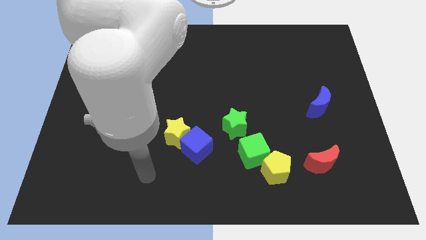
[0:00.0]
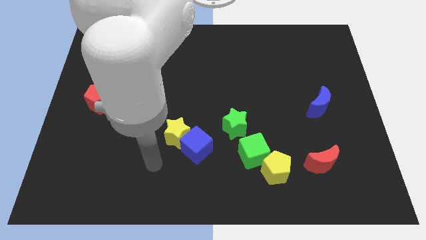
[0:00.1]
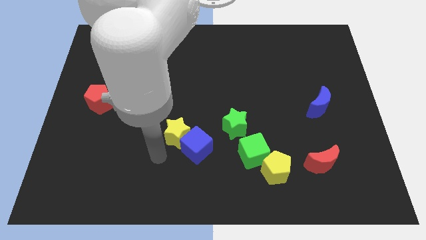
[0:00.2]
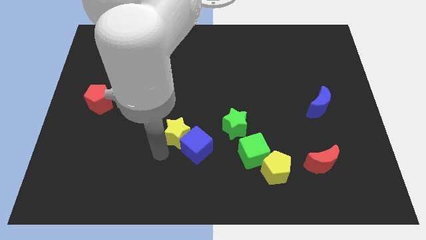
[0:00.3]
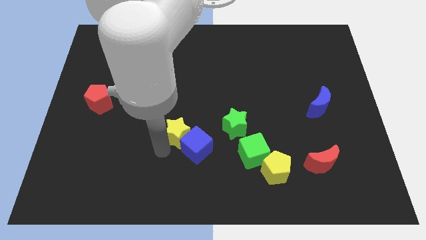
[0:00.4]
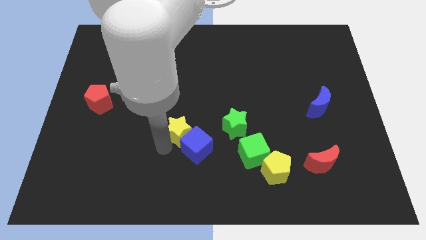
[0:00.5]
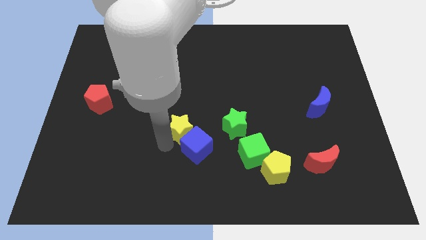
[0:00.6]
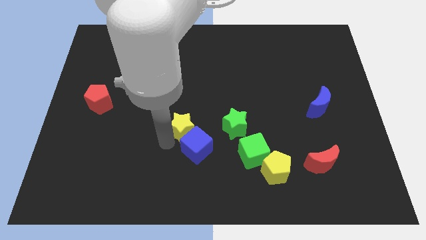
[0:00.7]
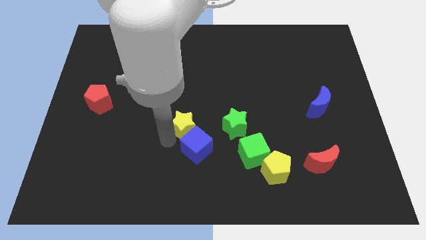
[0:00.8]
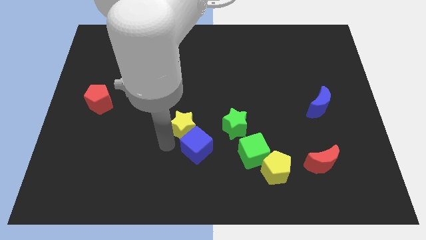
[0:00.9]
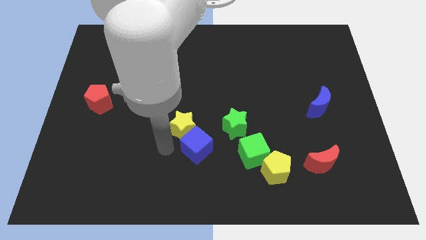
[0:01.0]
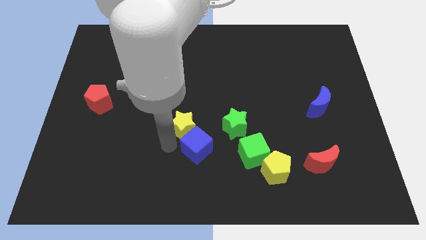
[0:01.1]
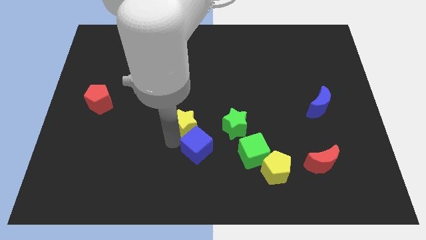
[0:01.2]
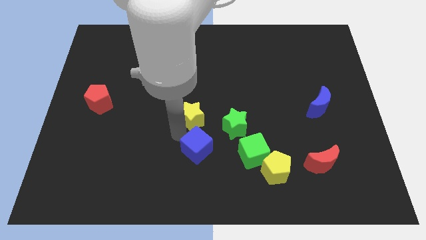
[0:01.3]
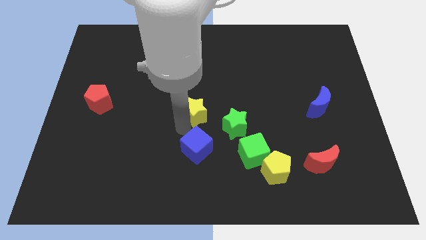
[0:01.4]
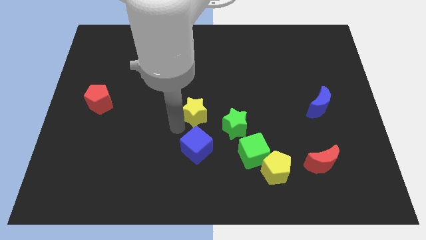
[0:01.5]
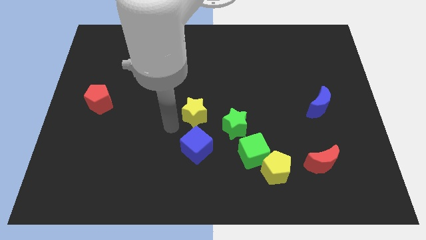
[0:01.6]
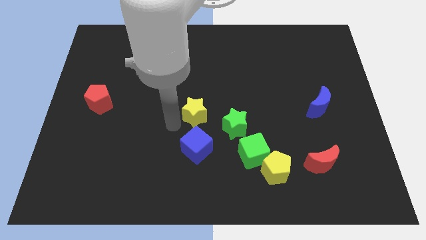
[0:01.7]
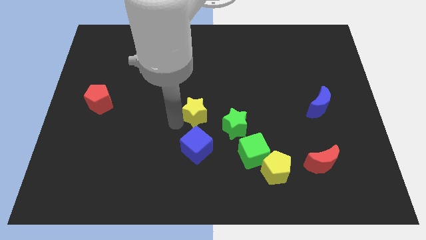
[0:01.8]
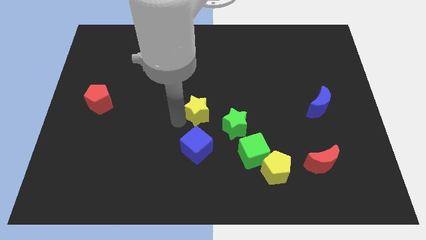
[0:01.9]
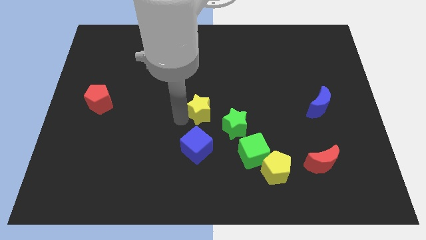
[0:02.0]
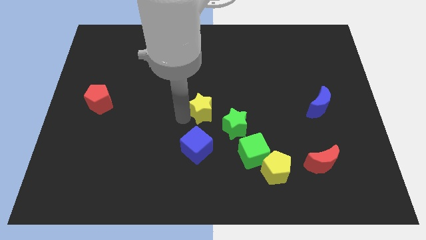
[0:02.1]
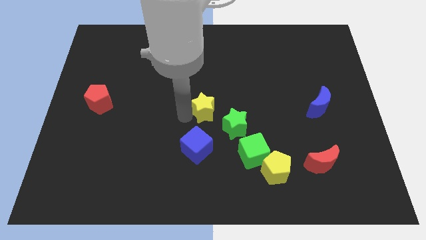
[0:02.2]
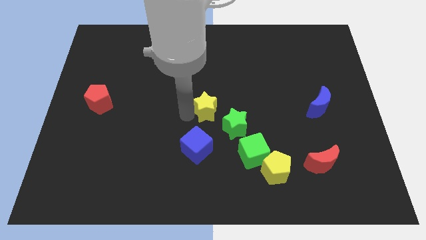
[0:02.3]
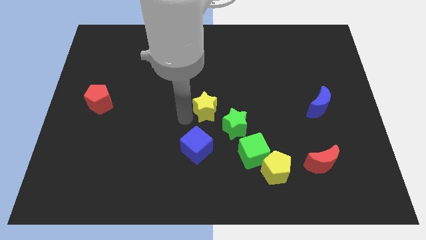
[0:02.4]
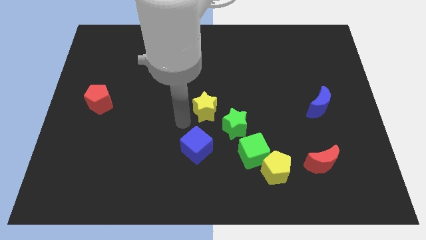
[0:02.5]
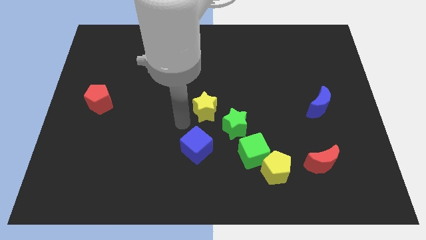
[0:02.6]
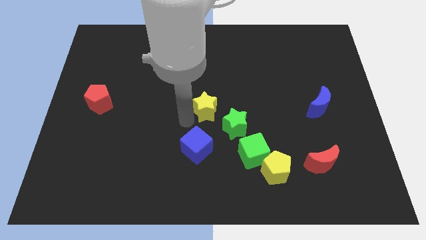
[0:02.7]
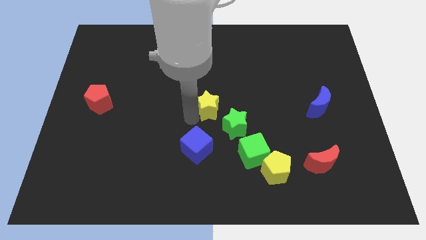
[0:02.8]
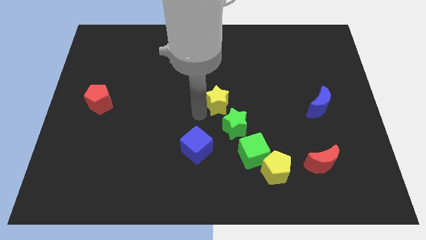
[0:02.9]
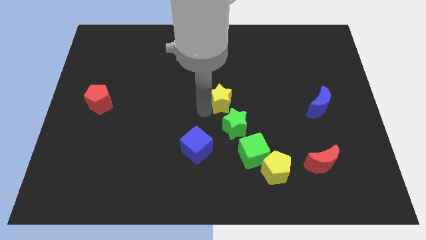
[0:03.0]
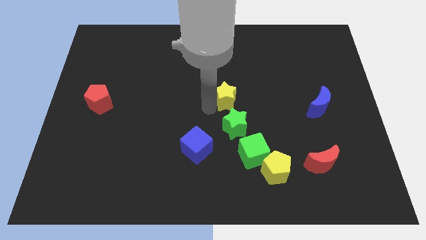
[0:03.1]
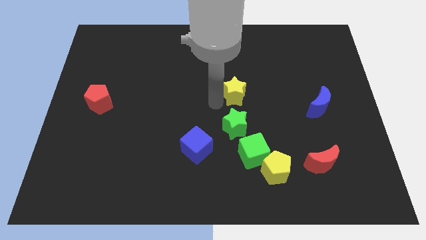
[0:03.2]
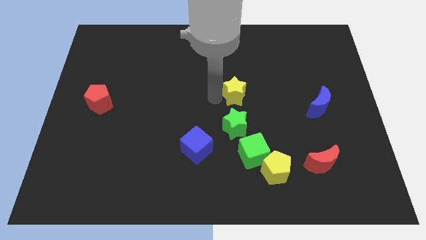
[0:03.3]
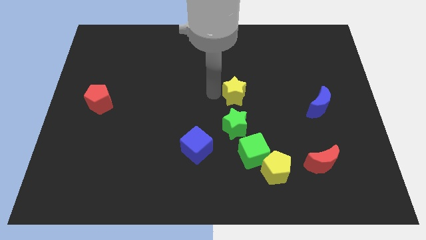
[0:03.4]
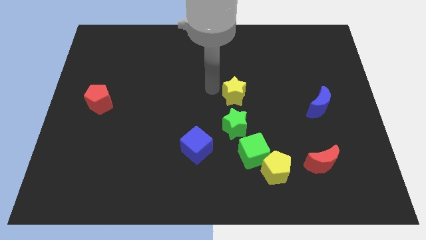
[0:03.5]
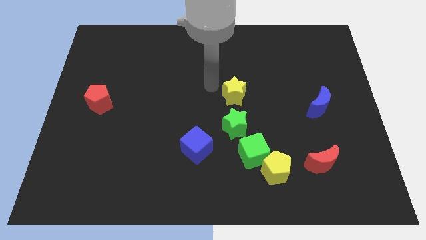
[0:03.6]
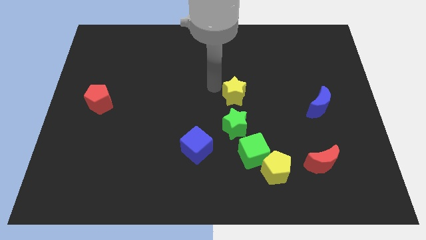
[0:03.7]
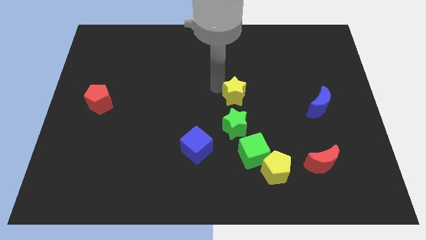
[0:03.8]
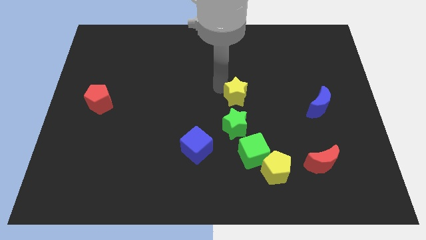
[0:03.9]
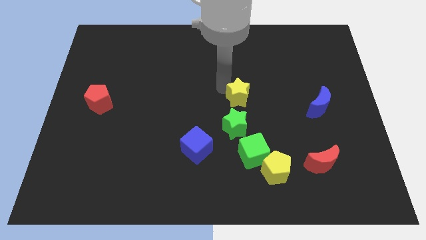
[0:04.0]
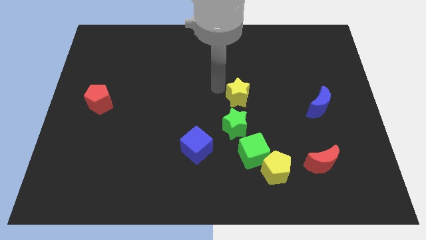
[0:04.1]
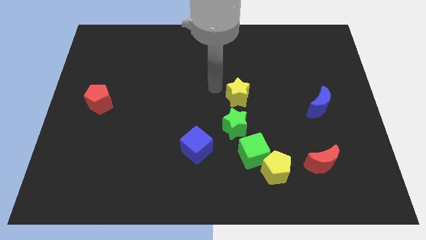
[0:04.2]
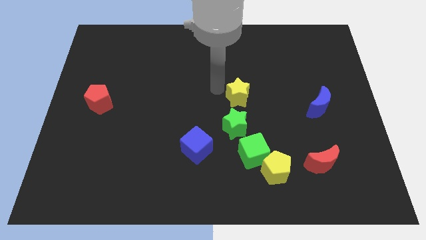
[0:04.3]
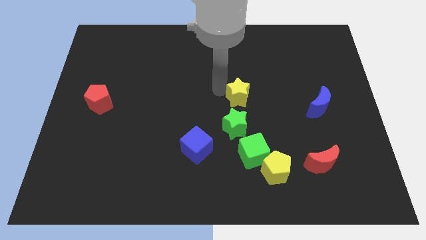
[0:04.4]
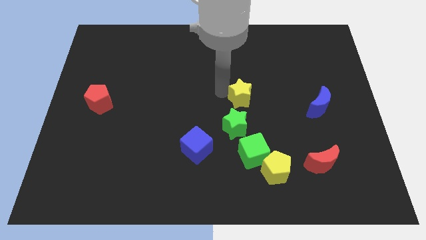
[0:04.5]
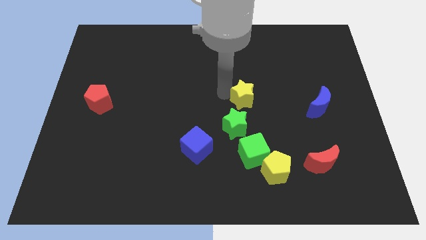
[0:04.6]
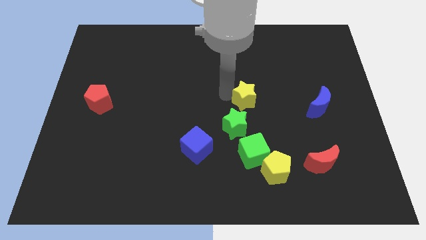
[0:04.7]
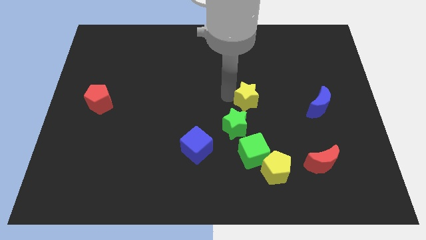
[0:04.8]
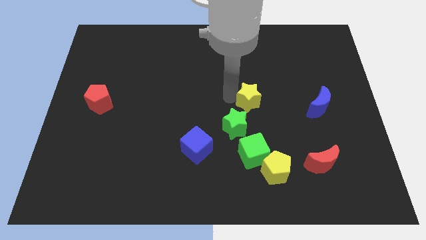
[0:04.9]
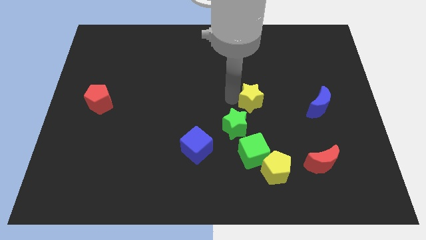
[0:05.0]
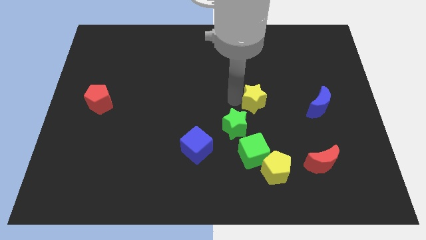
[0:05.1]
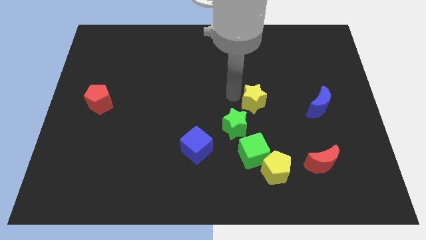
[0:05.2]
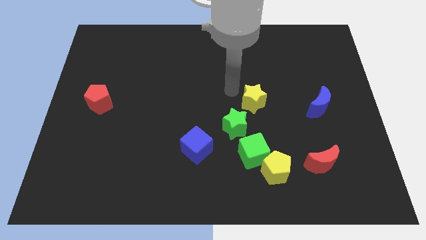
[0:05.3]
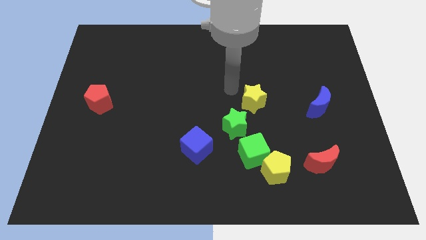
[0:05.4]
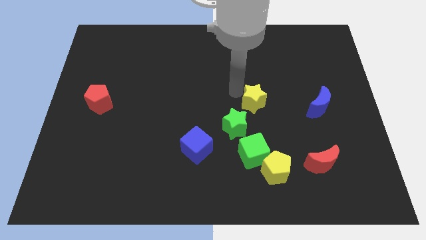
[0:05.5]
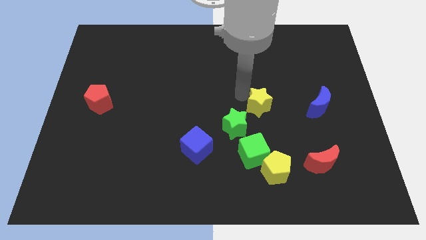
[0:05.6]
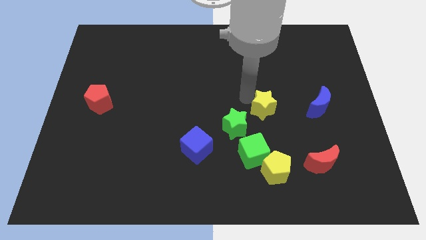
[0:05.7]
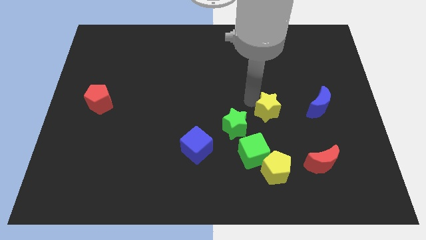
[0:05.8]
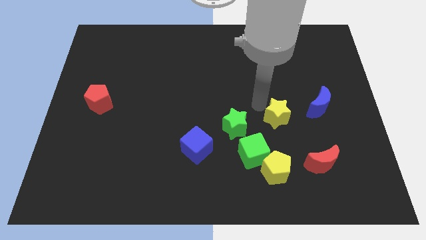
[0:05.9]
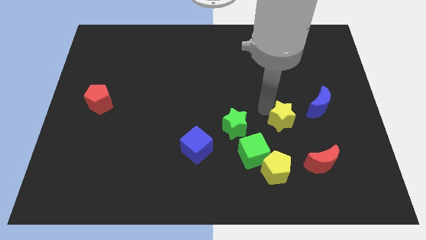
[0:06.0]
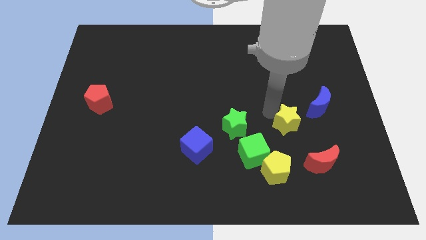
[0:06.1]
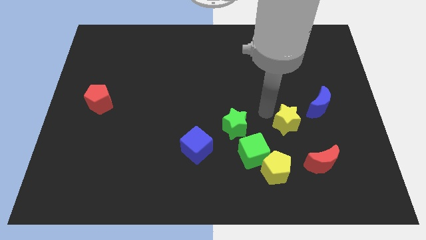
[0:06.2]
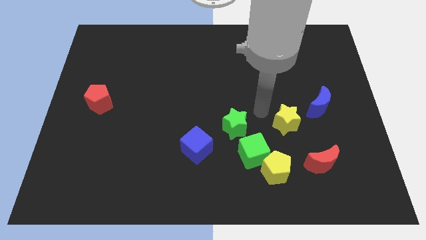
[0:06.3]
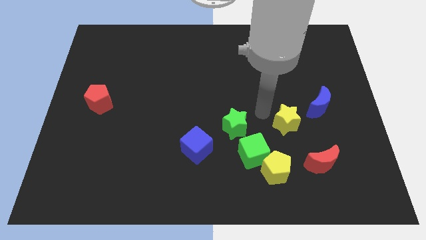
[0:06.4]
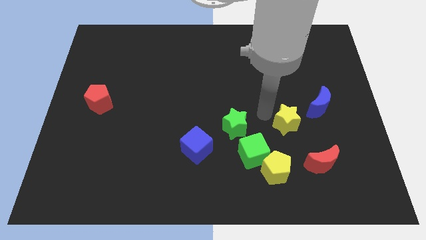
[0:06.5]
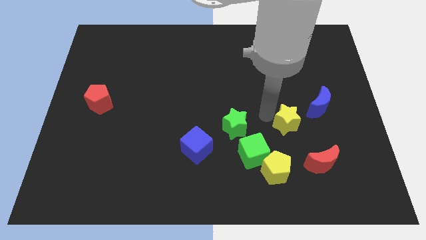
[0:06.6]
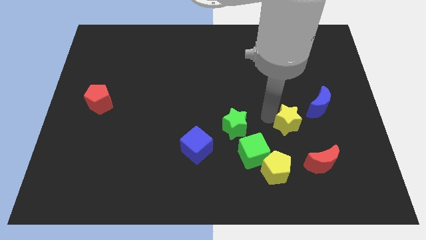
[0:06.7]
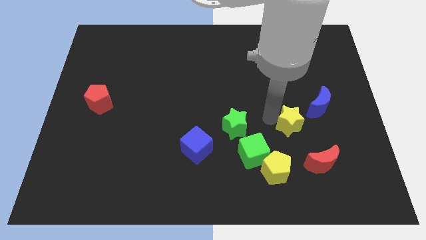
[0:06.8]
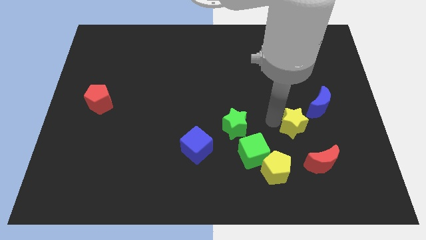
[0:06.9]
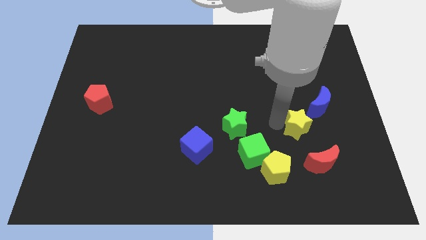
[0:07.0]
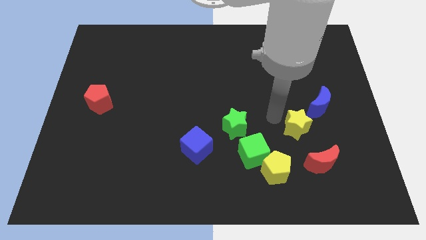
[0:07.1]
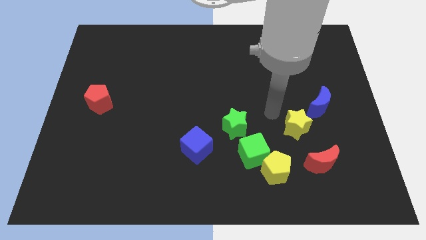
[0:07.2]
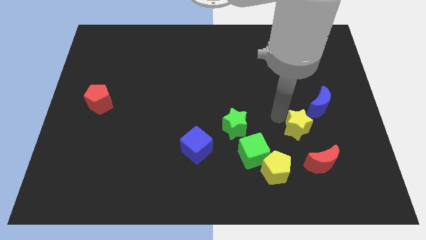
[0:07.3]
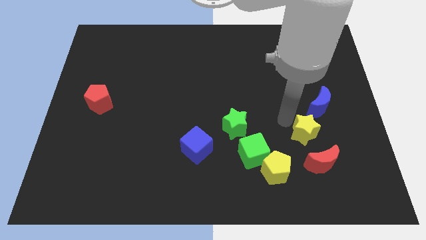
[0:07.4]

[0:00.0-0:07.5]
put the yellow star to the bottom of the blue moon

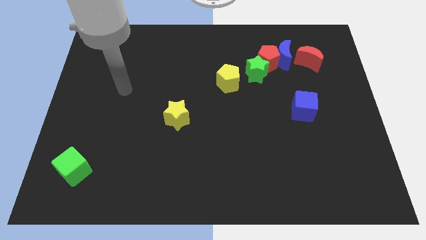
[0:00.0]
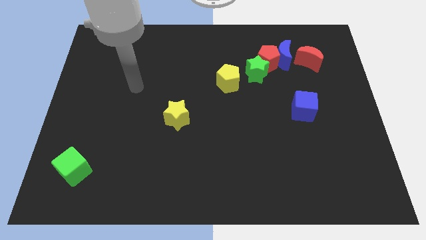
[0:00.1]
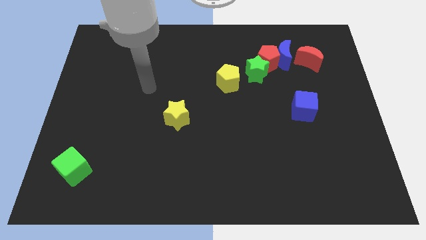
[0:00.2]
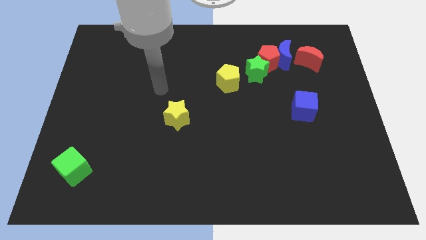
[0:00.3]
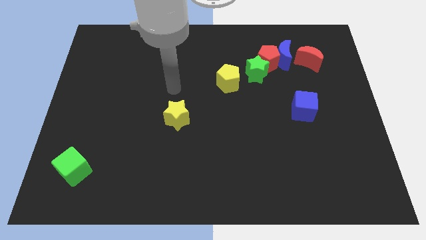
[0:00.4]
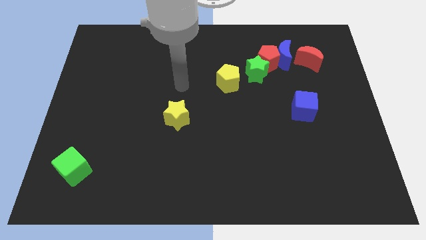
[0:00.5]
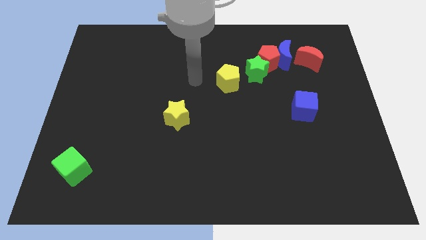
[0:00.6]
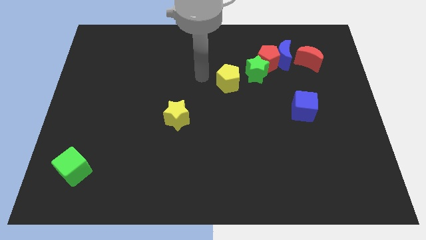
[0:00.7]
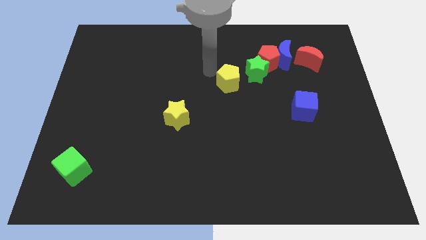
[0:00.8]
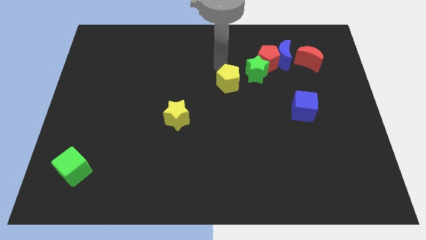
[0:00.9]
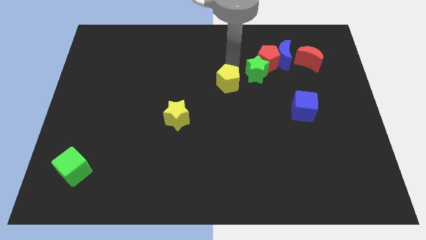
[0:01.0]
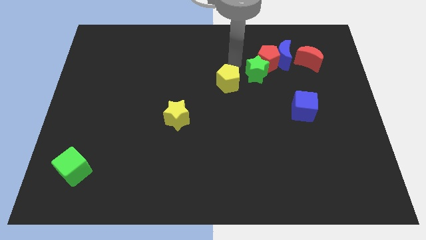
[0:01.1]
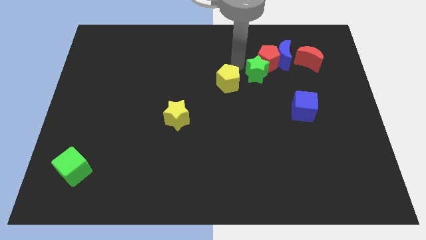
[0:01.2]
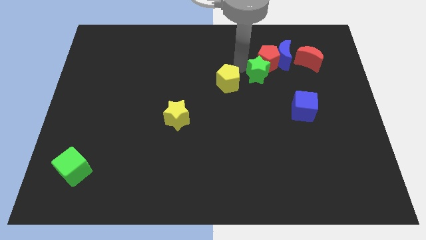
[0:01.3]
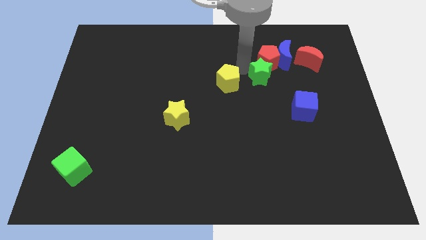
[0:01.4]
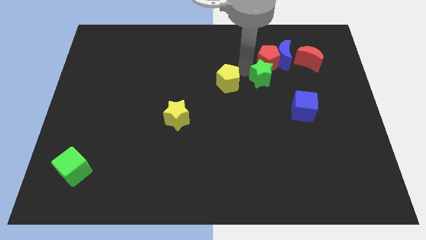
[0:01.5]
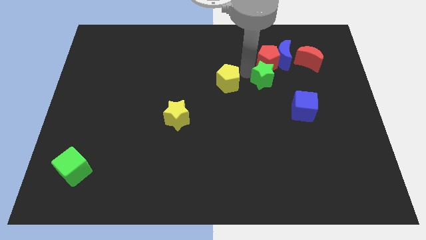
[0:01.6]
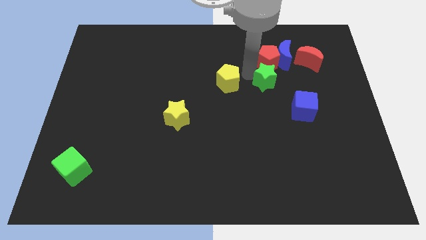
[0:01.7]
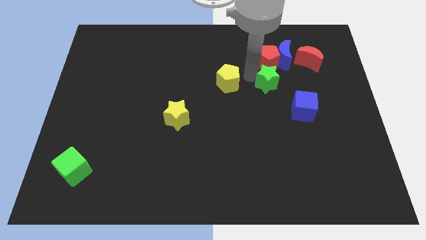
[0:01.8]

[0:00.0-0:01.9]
push the green star to the bottom of the blue moon
